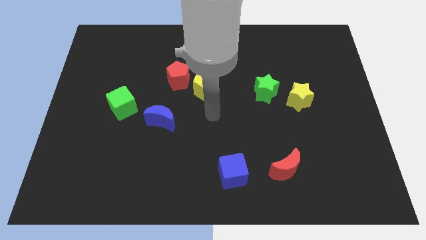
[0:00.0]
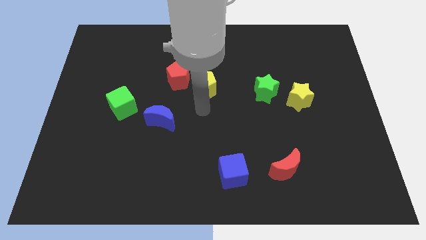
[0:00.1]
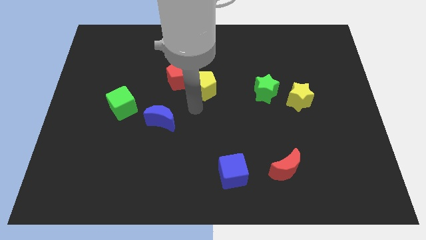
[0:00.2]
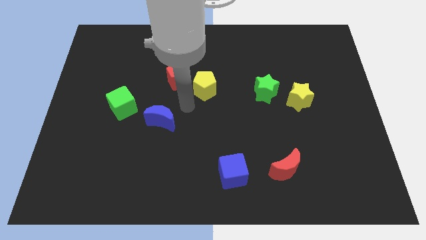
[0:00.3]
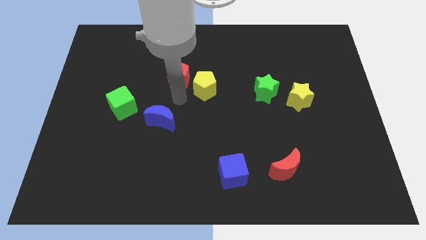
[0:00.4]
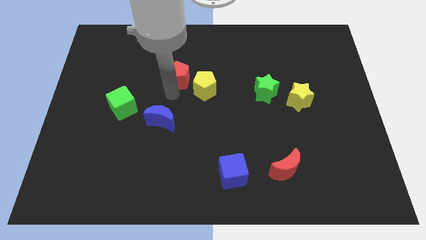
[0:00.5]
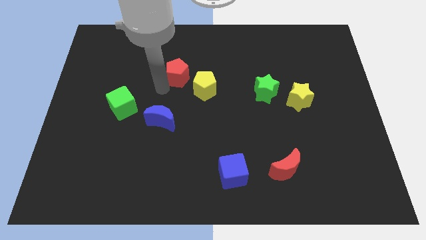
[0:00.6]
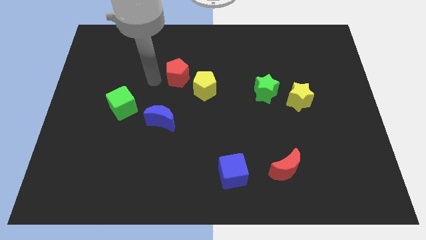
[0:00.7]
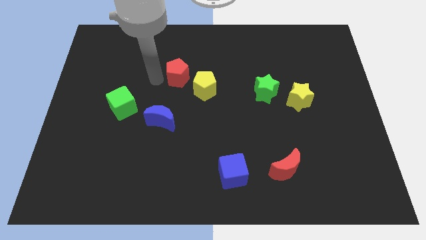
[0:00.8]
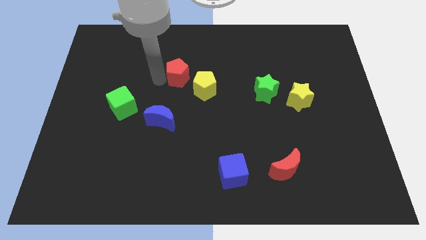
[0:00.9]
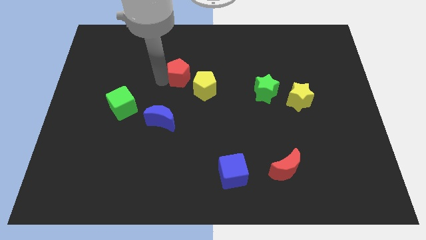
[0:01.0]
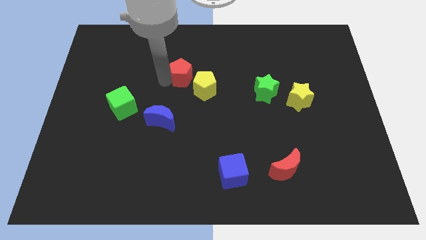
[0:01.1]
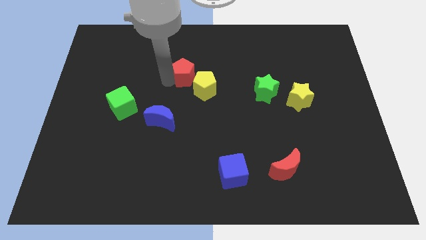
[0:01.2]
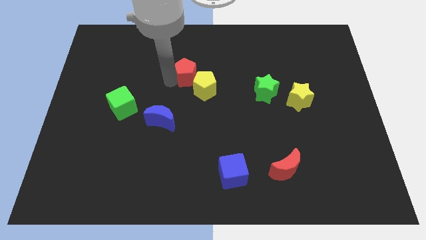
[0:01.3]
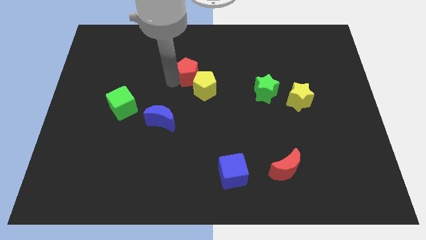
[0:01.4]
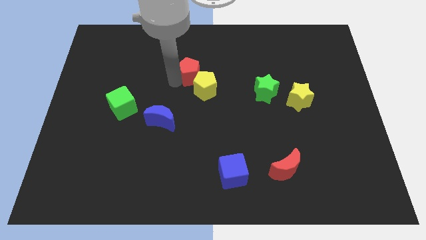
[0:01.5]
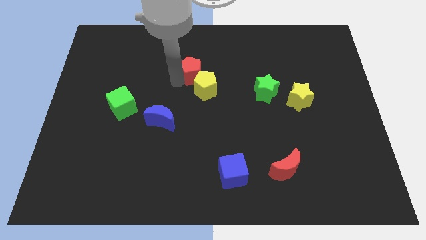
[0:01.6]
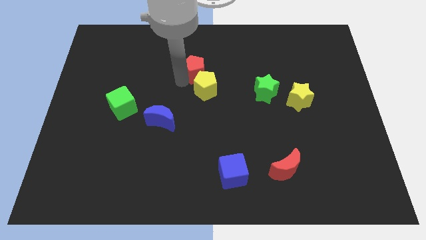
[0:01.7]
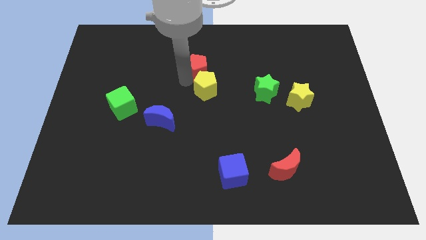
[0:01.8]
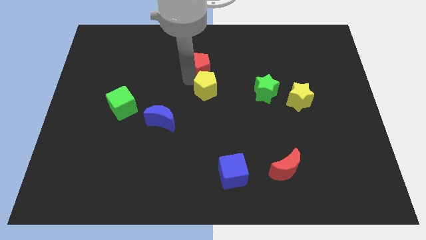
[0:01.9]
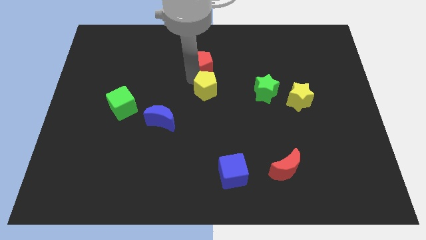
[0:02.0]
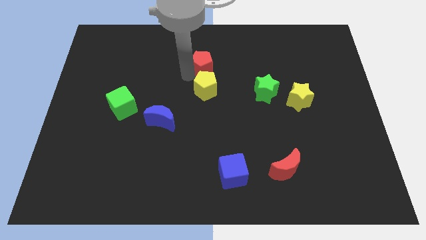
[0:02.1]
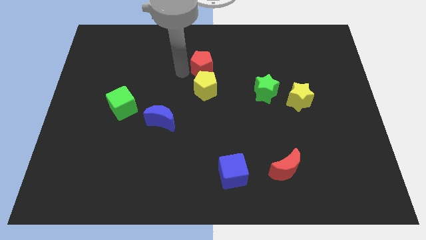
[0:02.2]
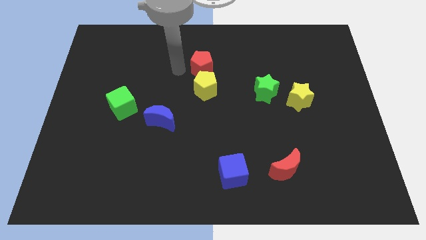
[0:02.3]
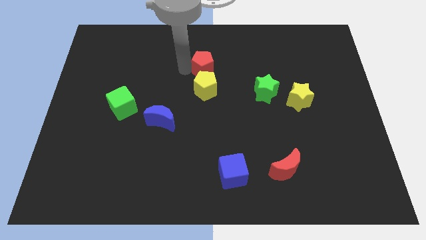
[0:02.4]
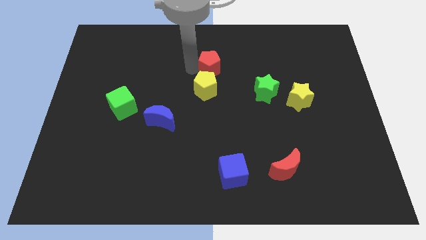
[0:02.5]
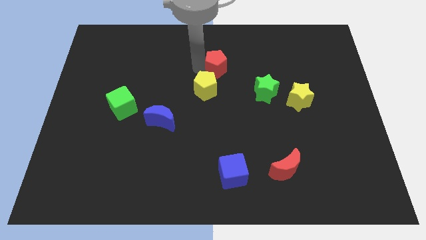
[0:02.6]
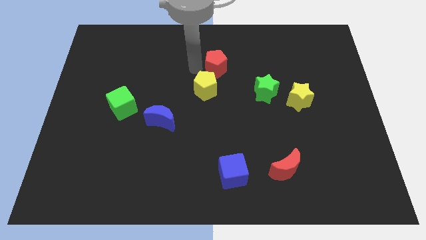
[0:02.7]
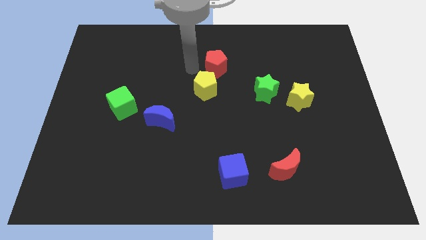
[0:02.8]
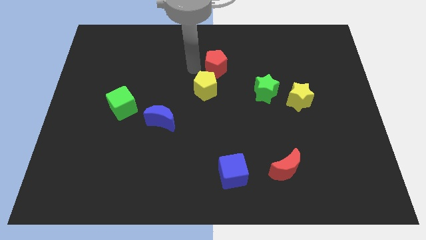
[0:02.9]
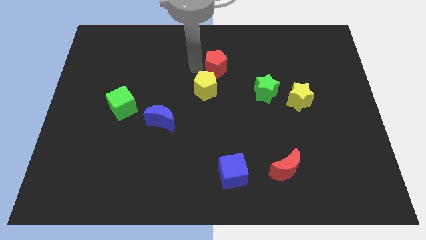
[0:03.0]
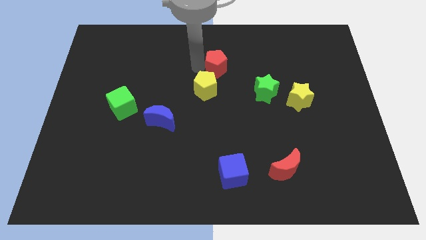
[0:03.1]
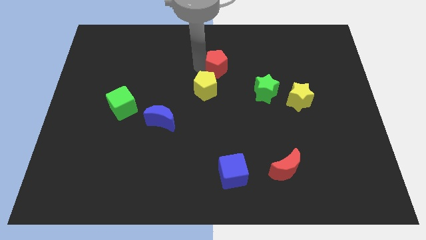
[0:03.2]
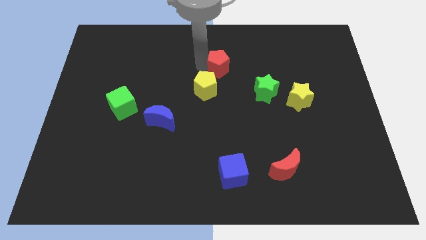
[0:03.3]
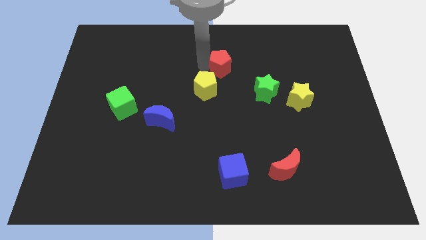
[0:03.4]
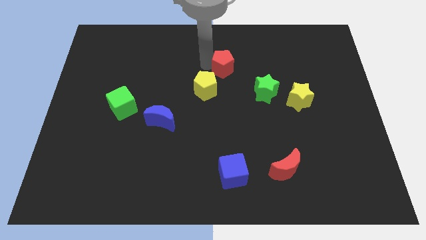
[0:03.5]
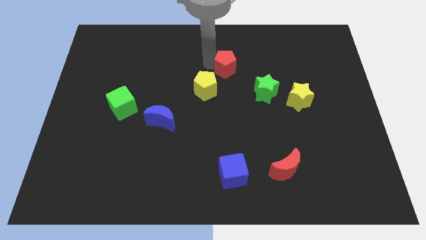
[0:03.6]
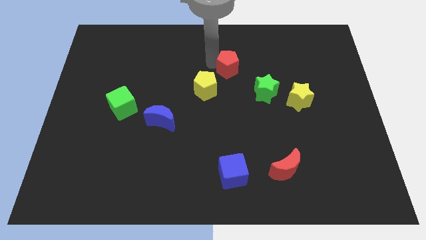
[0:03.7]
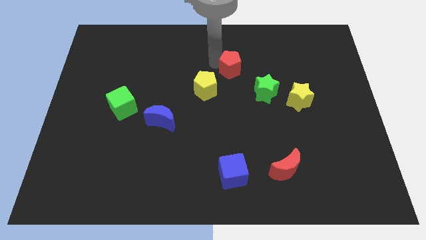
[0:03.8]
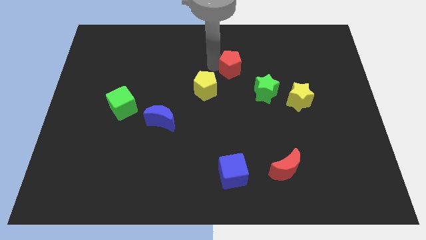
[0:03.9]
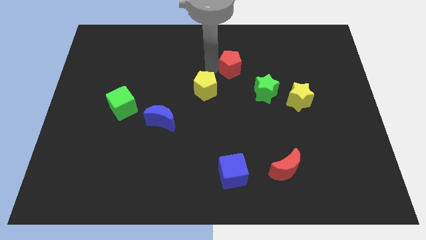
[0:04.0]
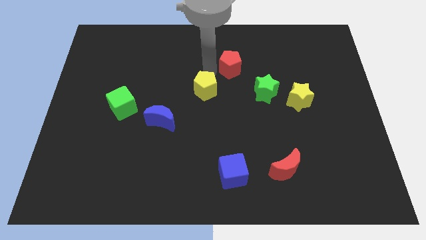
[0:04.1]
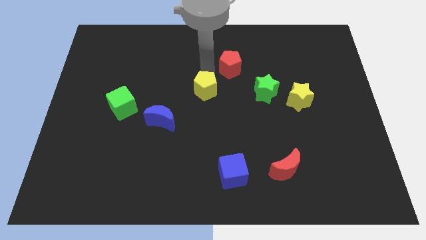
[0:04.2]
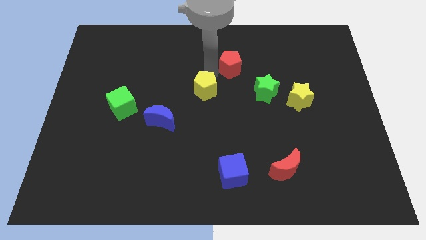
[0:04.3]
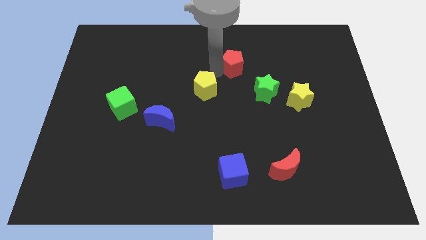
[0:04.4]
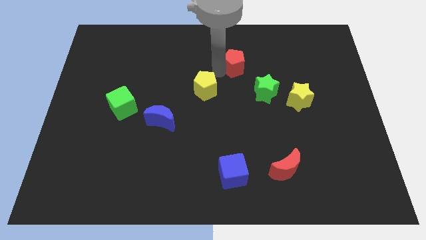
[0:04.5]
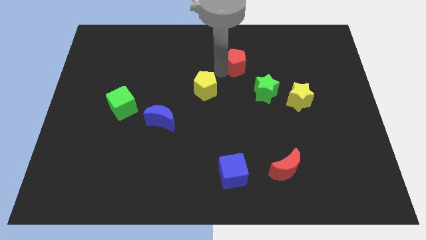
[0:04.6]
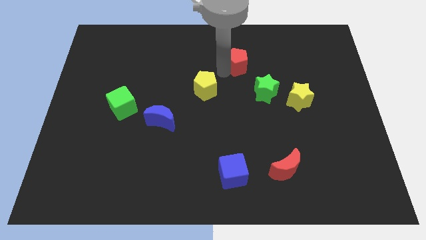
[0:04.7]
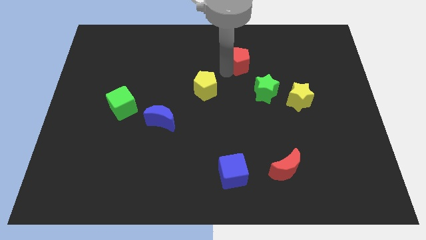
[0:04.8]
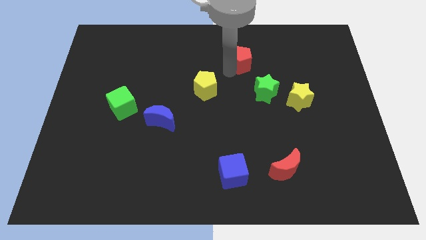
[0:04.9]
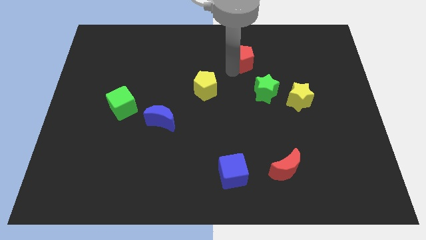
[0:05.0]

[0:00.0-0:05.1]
slide the red pentagon above the green star

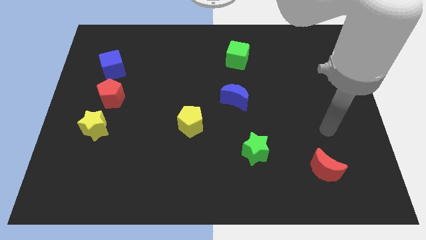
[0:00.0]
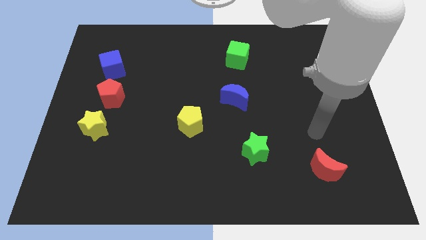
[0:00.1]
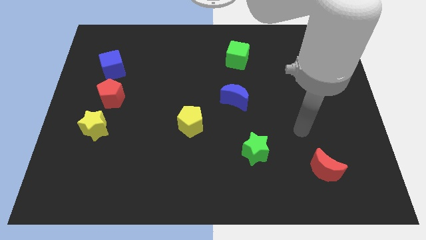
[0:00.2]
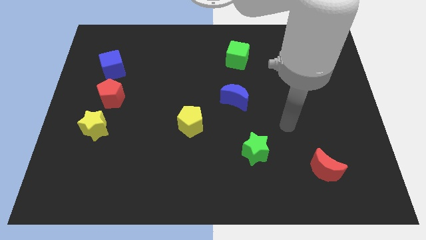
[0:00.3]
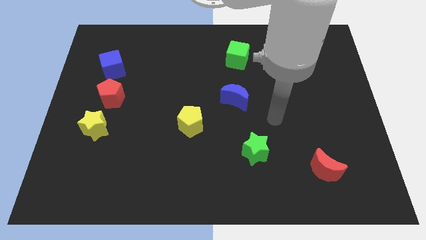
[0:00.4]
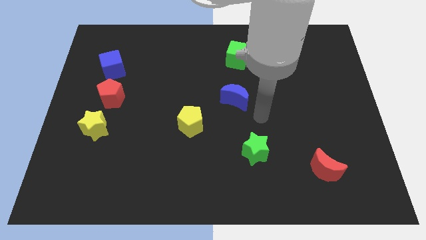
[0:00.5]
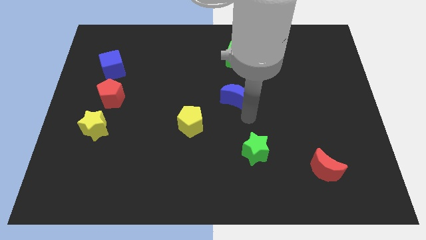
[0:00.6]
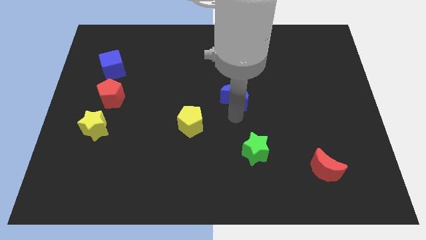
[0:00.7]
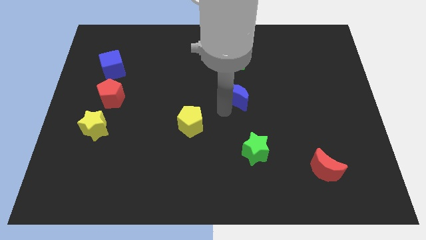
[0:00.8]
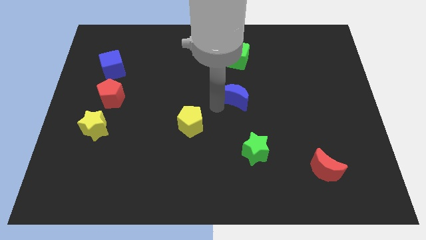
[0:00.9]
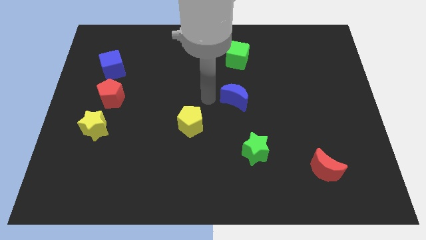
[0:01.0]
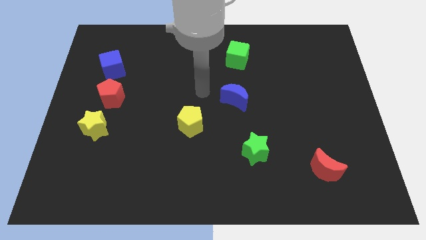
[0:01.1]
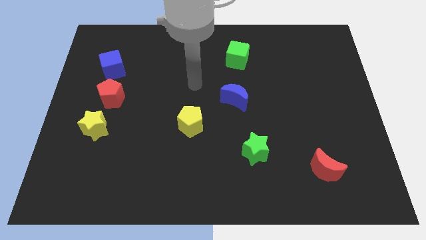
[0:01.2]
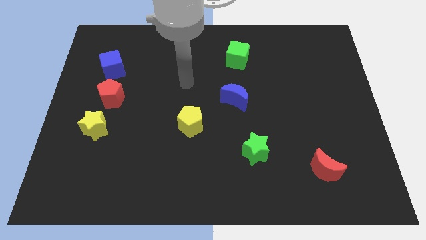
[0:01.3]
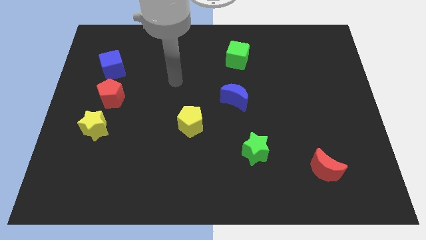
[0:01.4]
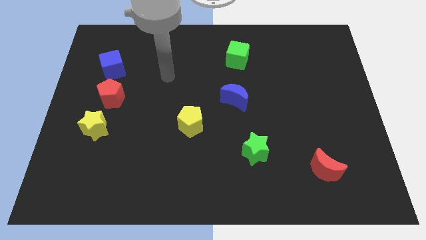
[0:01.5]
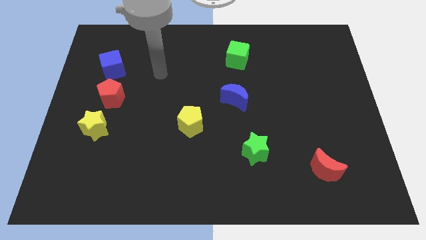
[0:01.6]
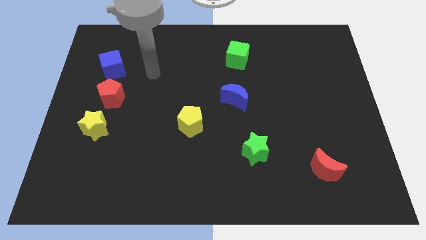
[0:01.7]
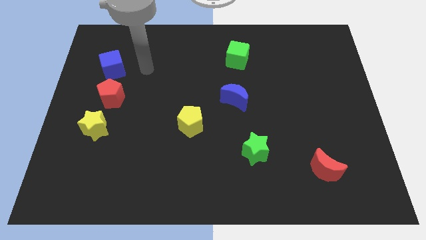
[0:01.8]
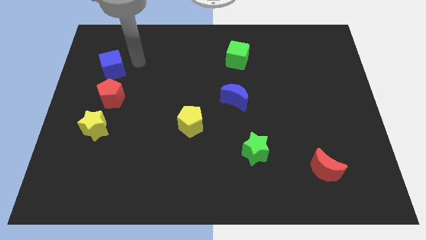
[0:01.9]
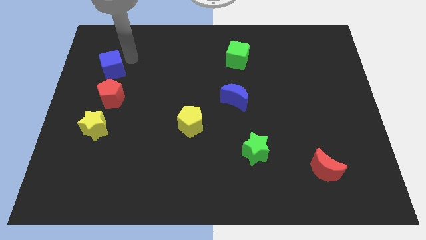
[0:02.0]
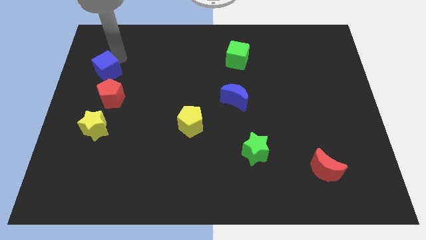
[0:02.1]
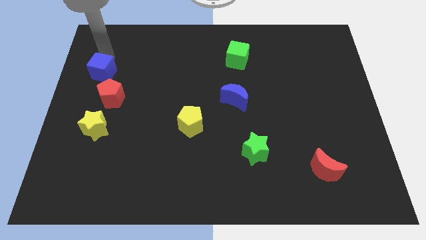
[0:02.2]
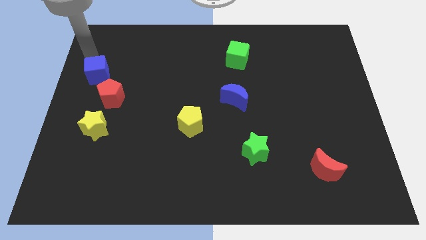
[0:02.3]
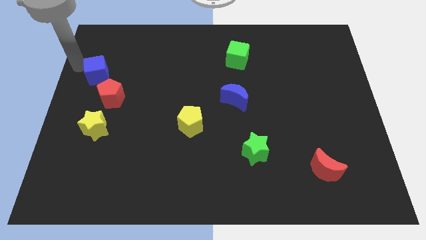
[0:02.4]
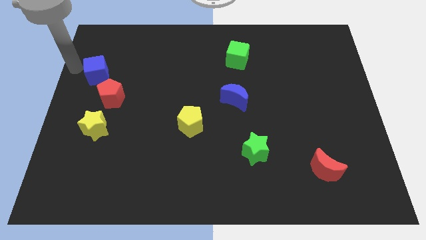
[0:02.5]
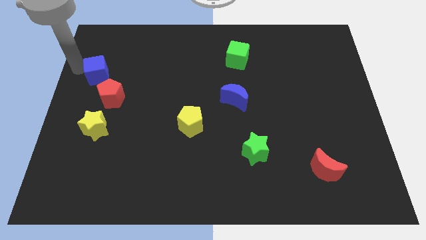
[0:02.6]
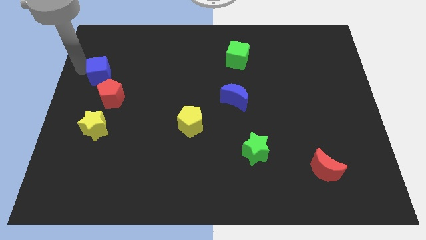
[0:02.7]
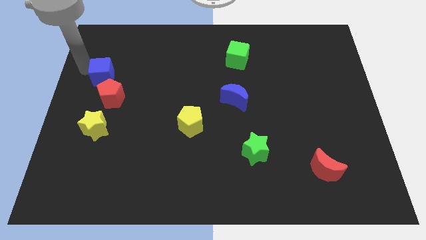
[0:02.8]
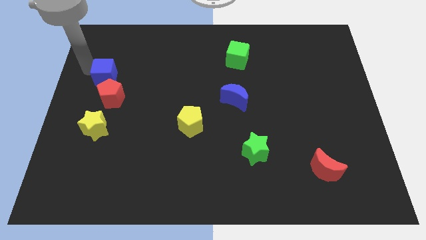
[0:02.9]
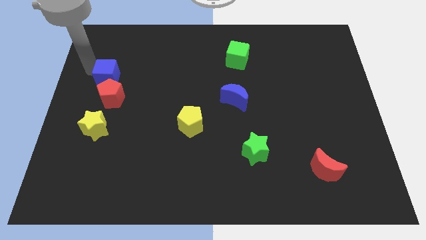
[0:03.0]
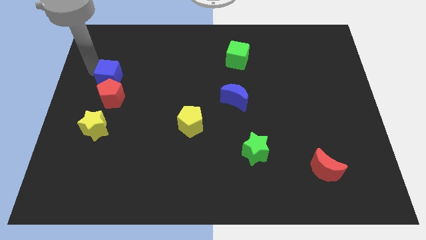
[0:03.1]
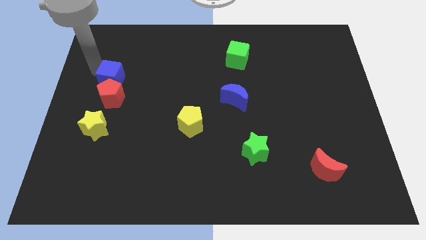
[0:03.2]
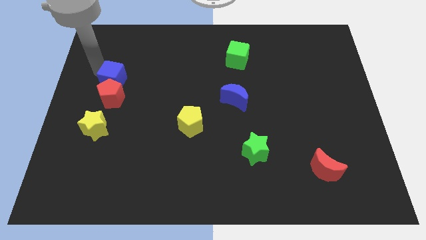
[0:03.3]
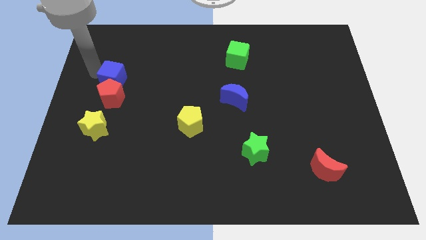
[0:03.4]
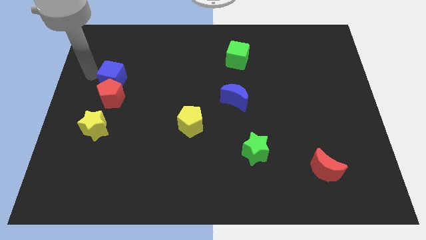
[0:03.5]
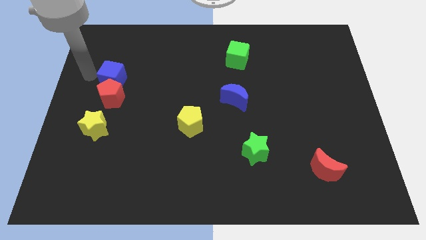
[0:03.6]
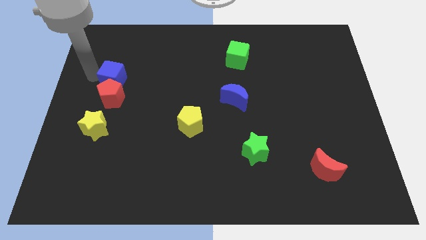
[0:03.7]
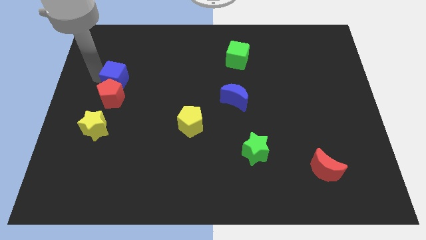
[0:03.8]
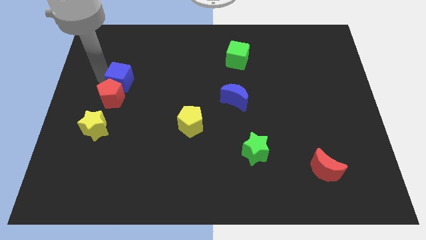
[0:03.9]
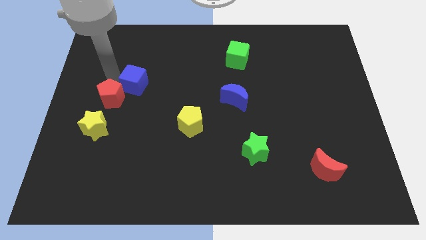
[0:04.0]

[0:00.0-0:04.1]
put the blue cube to the right of the red pentagon
